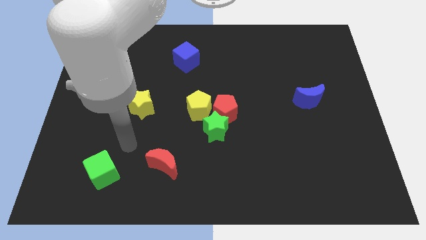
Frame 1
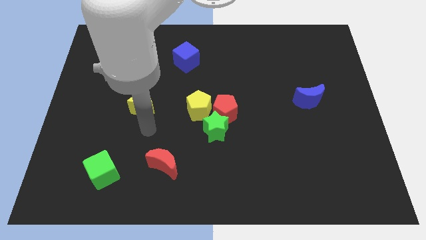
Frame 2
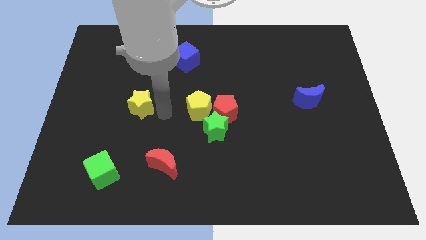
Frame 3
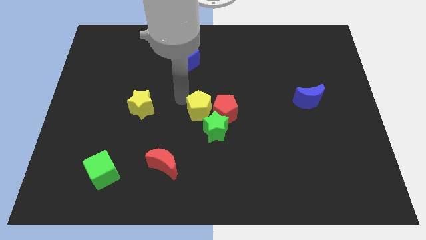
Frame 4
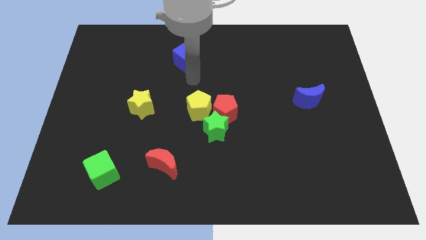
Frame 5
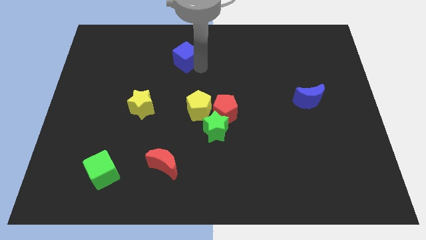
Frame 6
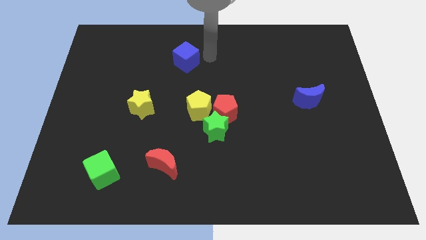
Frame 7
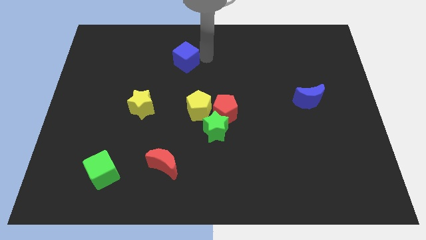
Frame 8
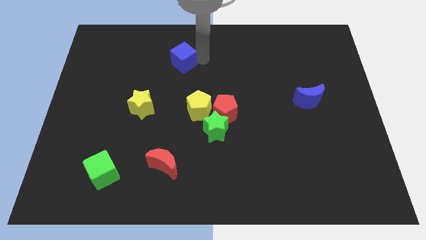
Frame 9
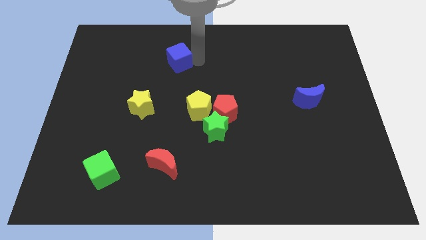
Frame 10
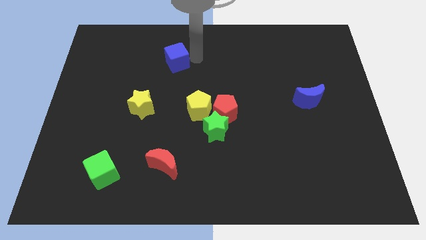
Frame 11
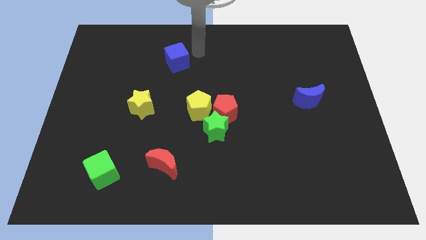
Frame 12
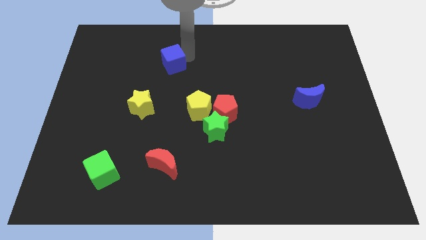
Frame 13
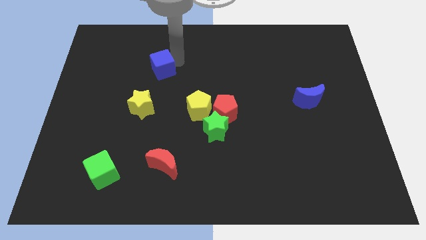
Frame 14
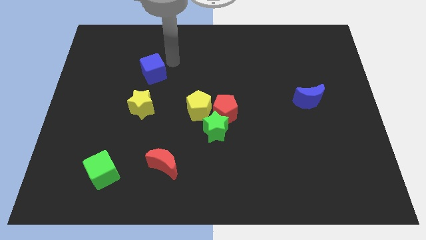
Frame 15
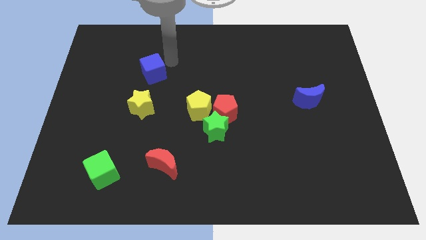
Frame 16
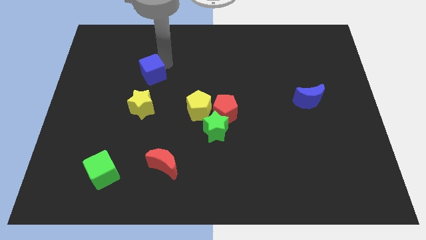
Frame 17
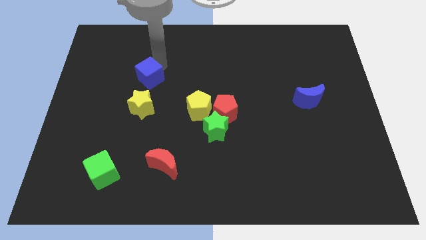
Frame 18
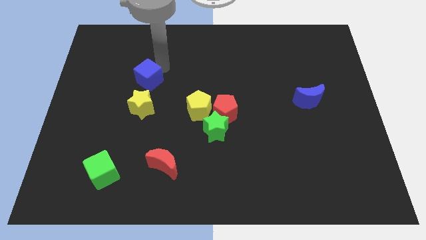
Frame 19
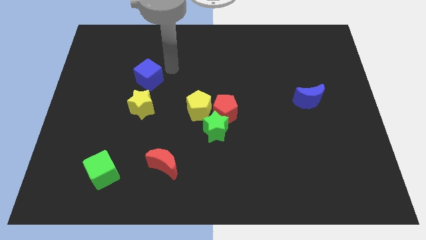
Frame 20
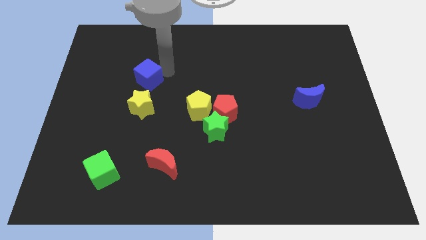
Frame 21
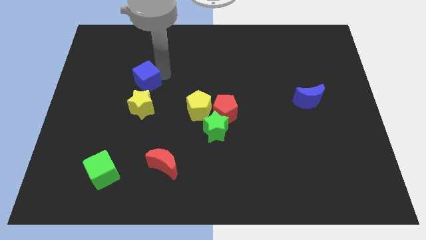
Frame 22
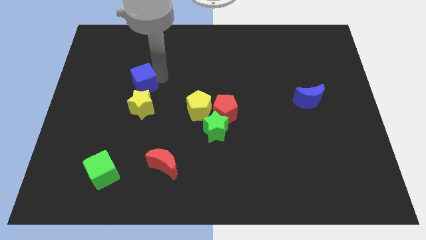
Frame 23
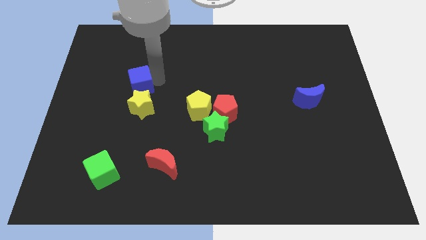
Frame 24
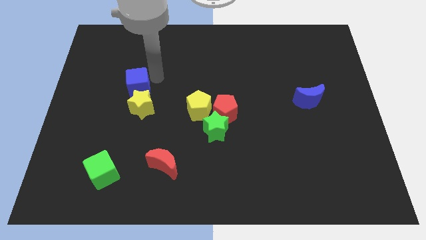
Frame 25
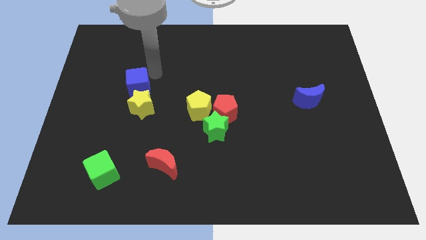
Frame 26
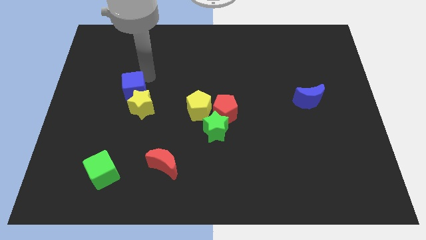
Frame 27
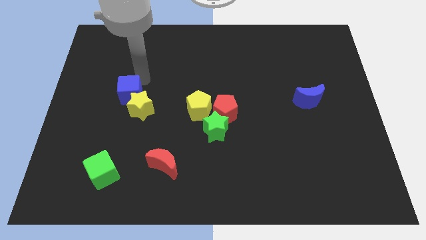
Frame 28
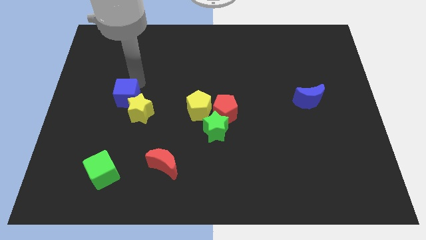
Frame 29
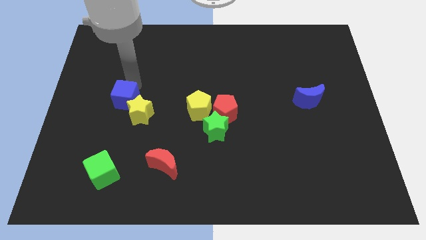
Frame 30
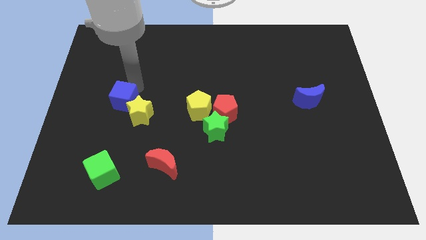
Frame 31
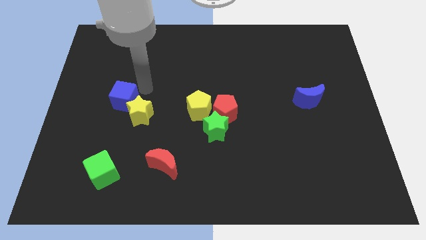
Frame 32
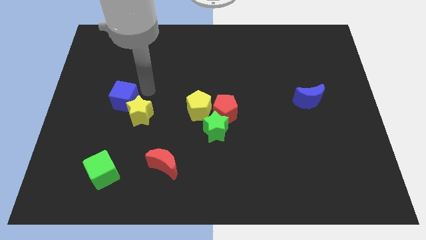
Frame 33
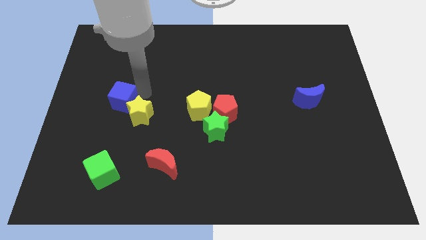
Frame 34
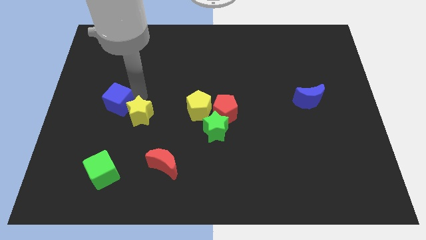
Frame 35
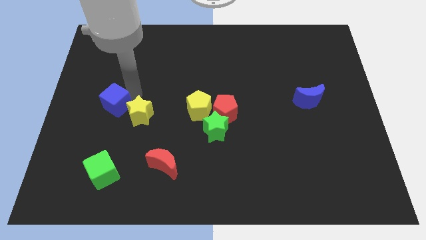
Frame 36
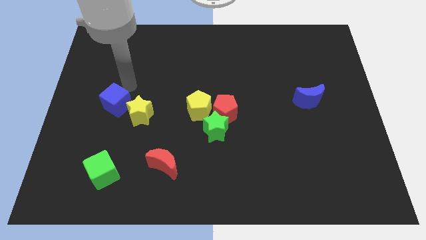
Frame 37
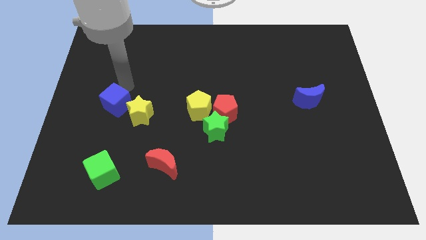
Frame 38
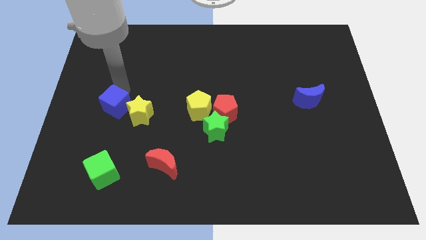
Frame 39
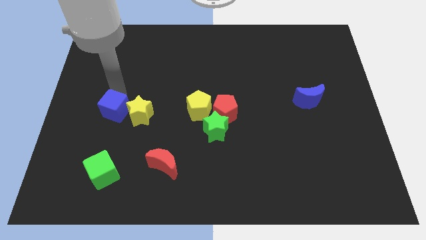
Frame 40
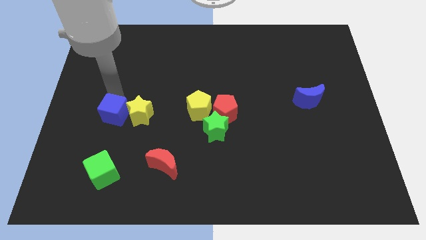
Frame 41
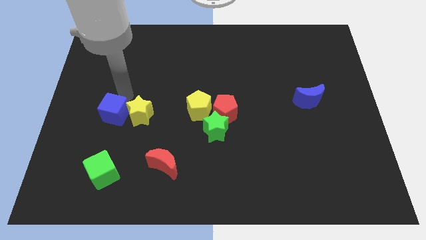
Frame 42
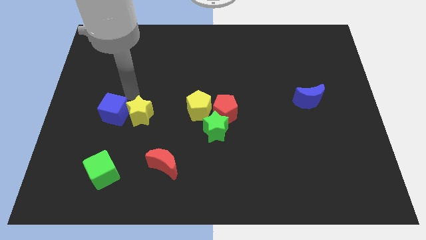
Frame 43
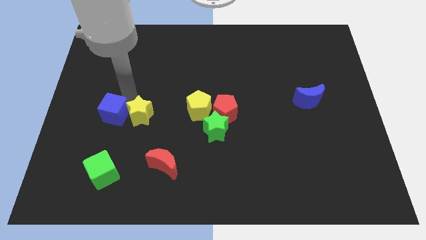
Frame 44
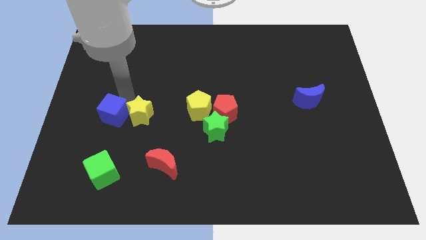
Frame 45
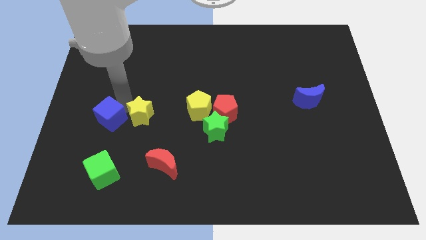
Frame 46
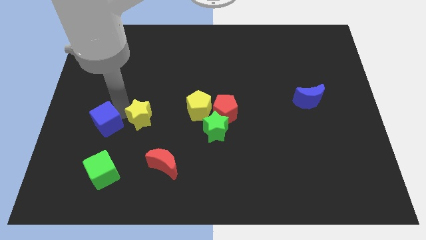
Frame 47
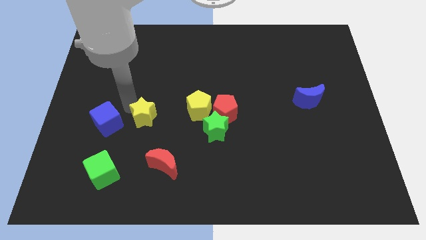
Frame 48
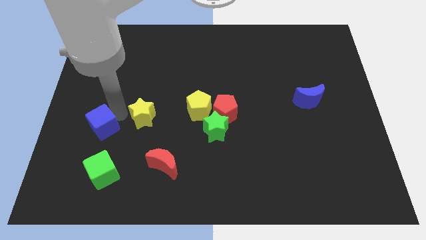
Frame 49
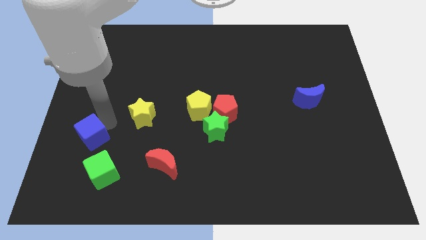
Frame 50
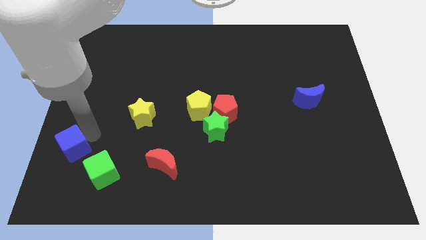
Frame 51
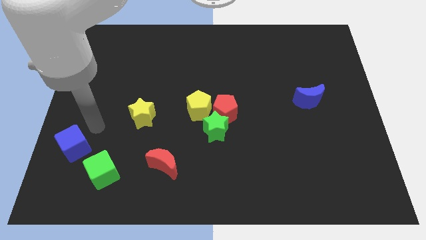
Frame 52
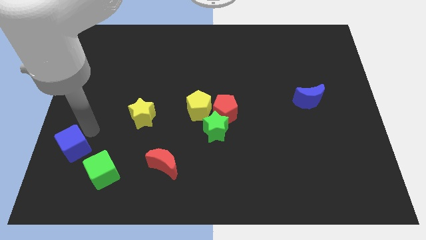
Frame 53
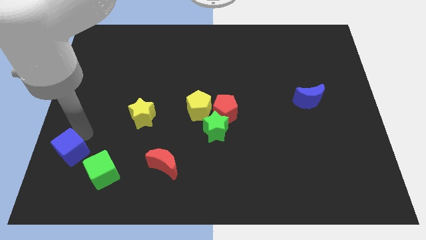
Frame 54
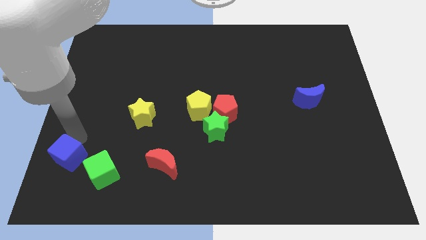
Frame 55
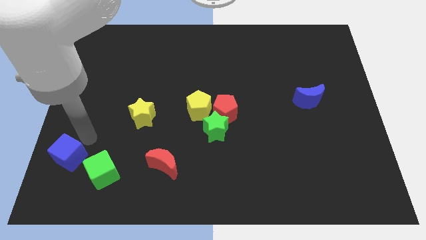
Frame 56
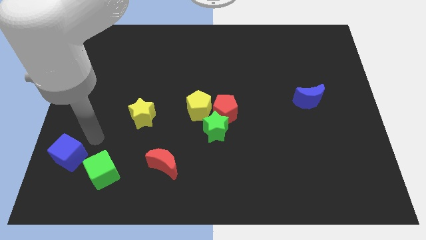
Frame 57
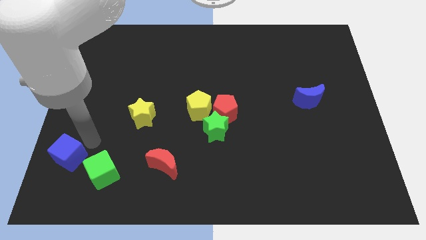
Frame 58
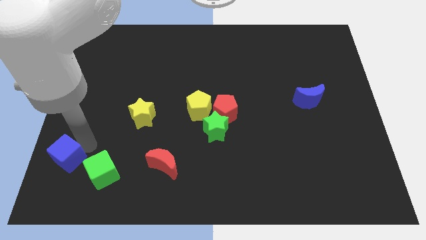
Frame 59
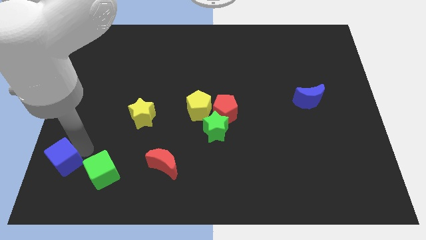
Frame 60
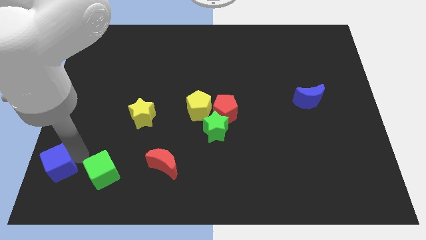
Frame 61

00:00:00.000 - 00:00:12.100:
push the blue cube to the bottom left of the board

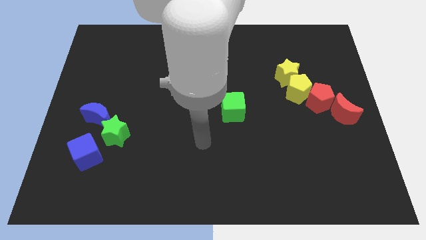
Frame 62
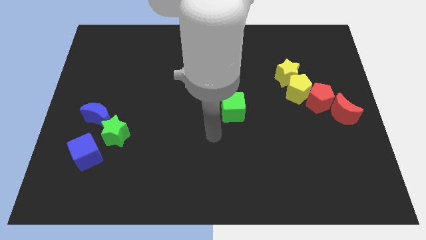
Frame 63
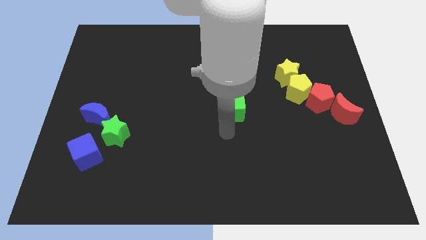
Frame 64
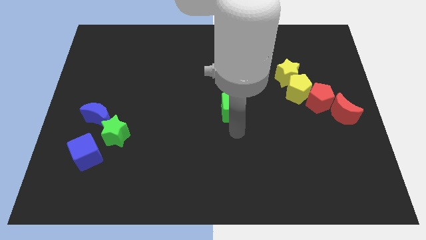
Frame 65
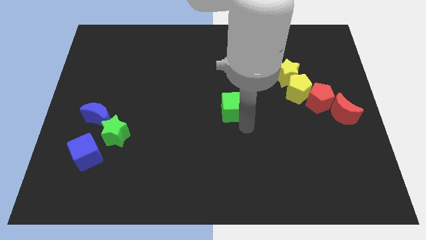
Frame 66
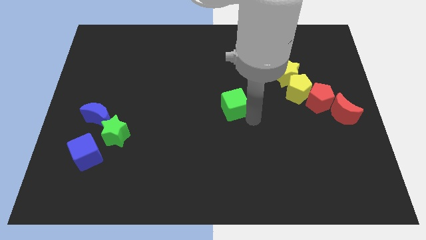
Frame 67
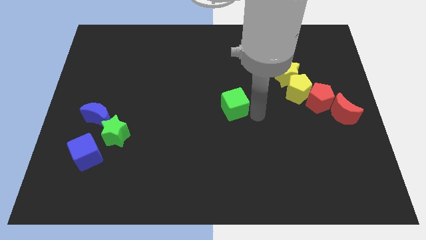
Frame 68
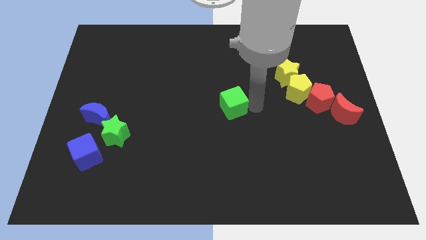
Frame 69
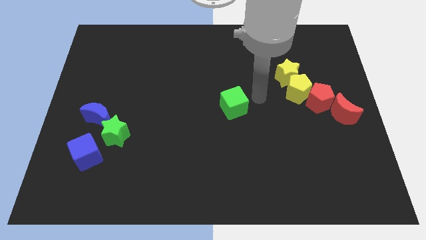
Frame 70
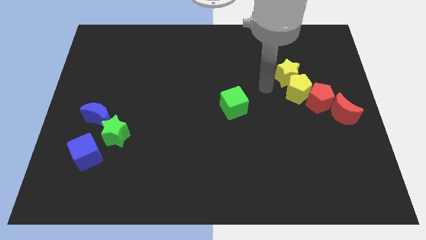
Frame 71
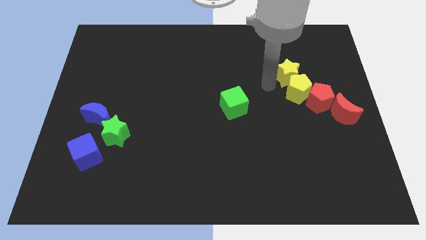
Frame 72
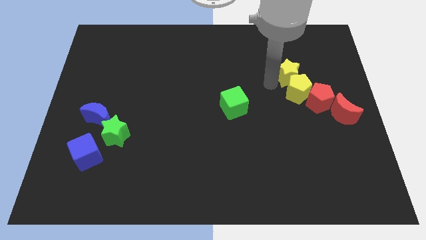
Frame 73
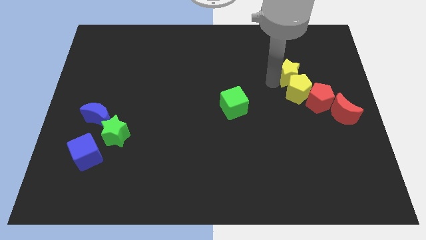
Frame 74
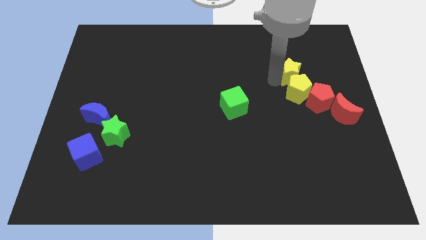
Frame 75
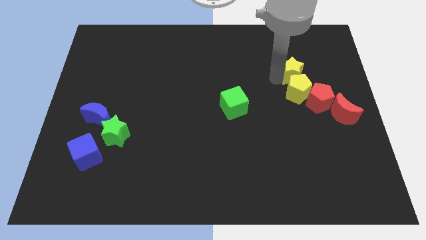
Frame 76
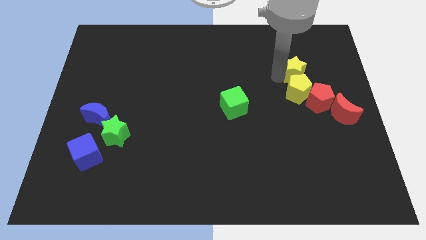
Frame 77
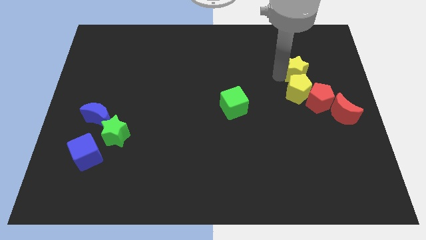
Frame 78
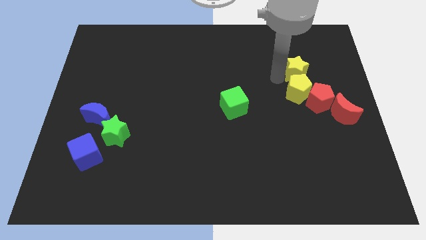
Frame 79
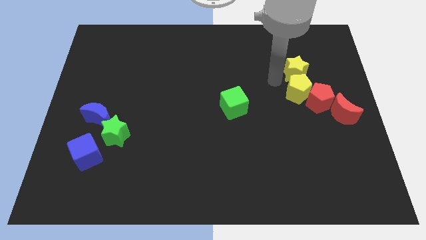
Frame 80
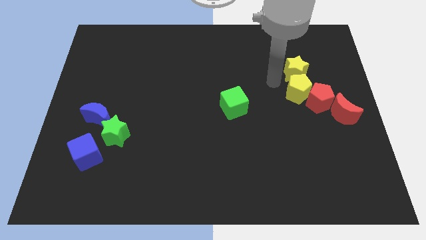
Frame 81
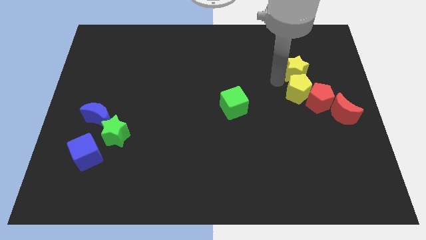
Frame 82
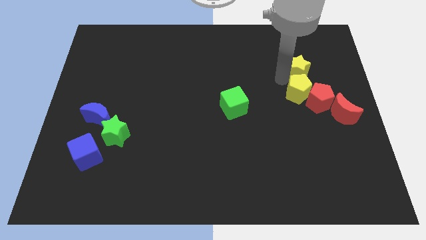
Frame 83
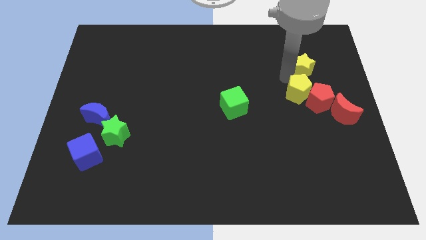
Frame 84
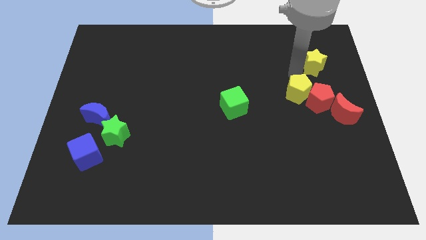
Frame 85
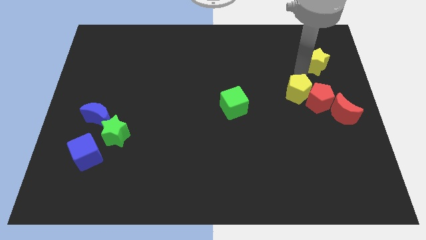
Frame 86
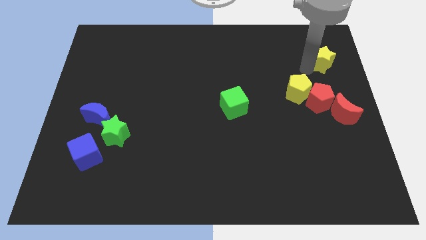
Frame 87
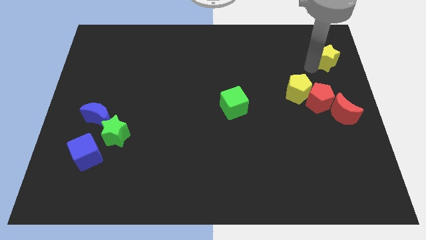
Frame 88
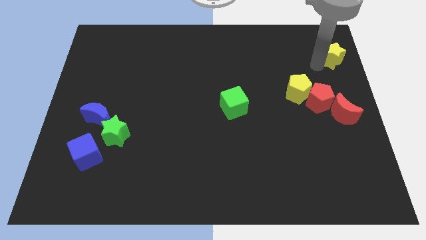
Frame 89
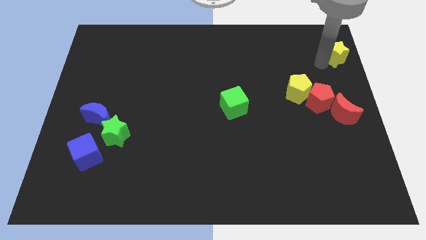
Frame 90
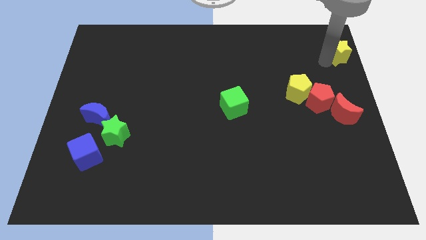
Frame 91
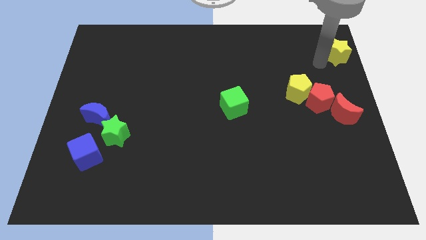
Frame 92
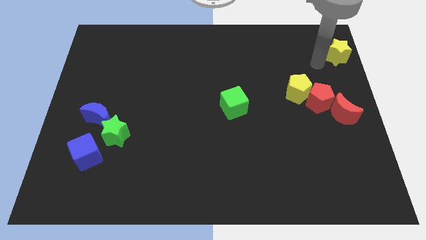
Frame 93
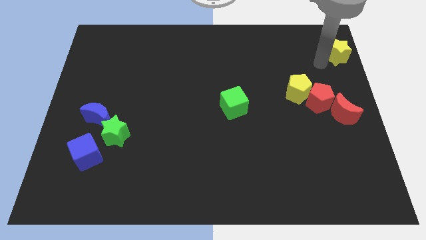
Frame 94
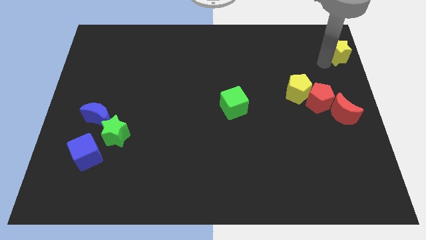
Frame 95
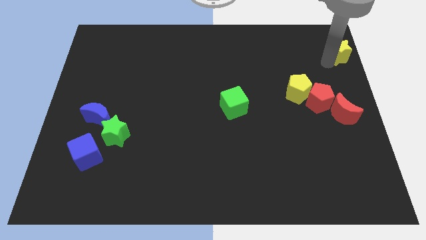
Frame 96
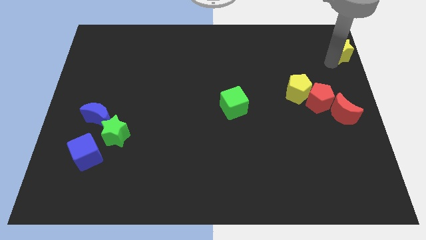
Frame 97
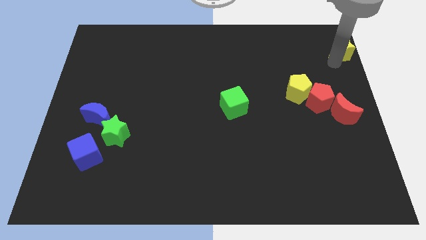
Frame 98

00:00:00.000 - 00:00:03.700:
move the yellow star to the top right
